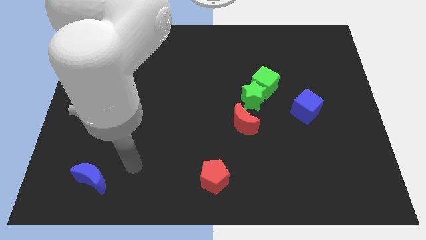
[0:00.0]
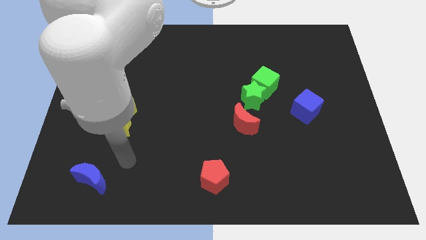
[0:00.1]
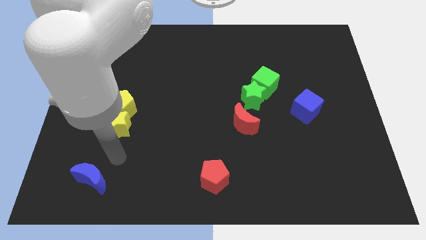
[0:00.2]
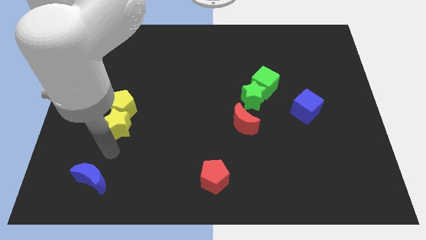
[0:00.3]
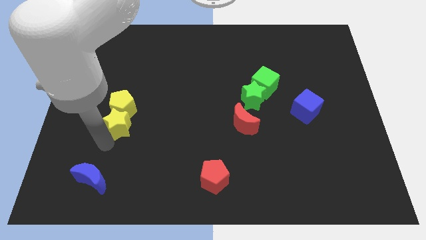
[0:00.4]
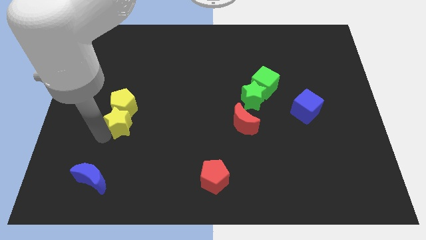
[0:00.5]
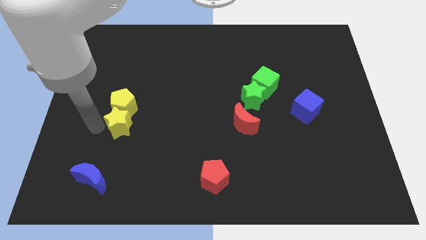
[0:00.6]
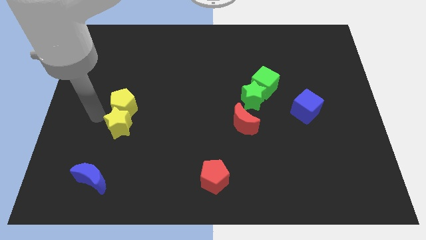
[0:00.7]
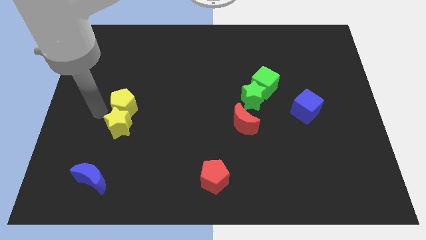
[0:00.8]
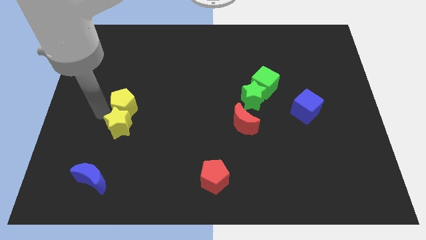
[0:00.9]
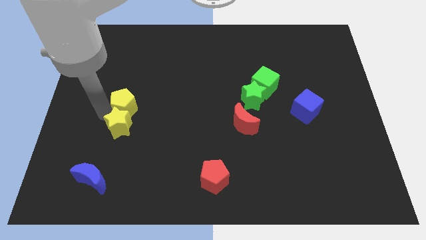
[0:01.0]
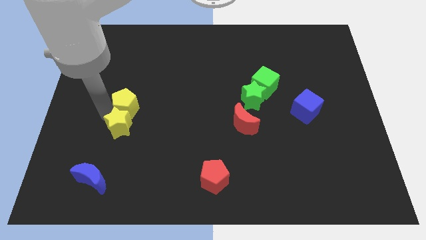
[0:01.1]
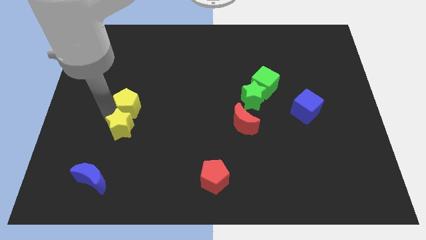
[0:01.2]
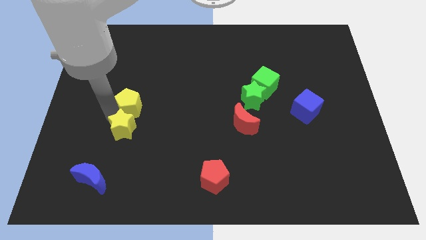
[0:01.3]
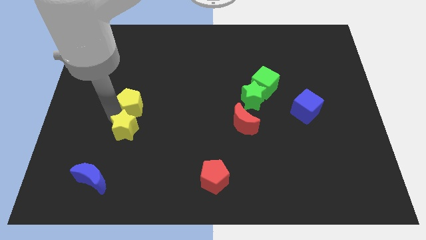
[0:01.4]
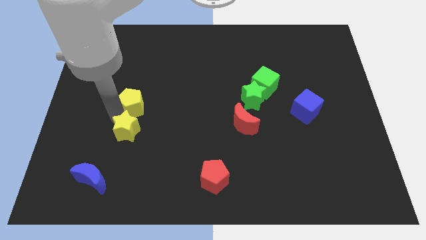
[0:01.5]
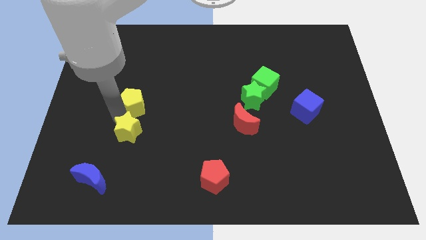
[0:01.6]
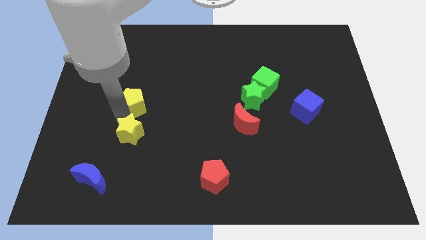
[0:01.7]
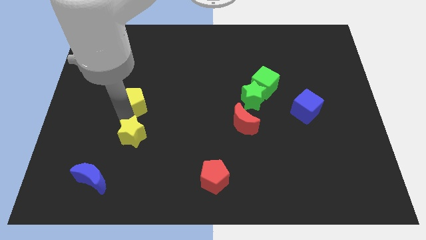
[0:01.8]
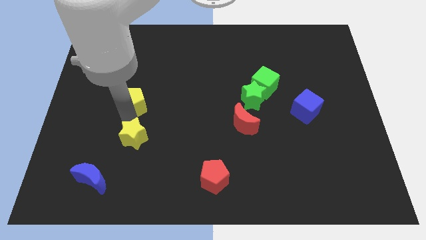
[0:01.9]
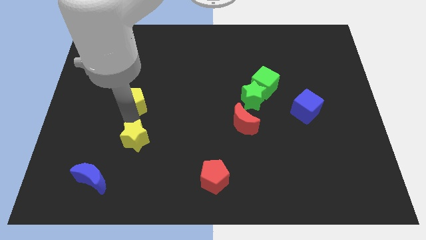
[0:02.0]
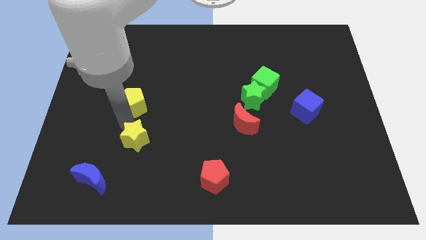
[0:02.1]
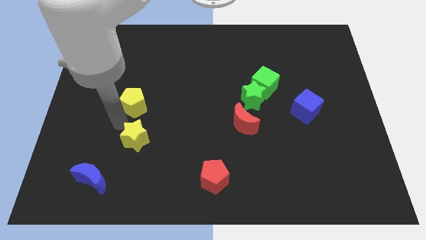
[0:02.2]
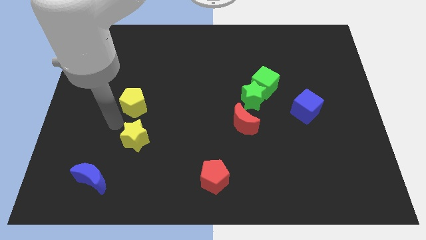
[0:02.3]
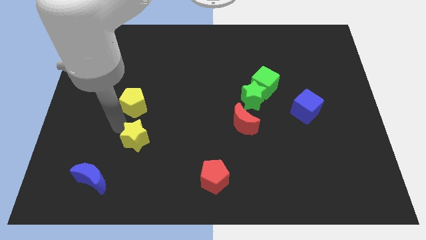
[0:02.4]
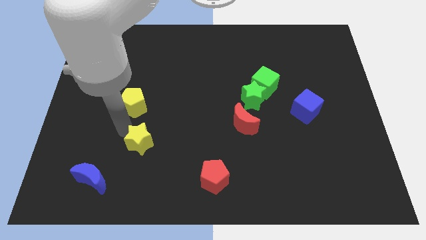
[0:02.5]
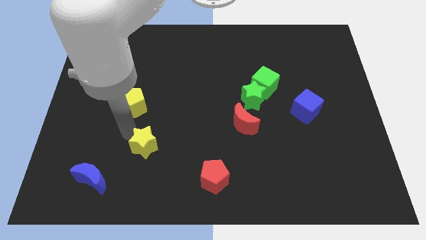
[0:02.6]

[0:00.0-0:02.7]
slightly move the yellow star downwards and then right

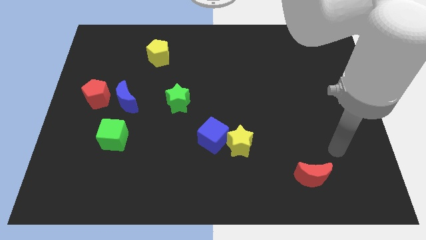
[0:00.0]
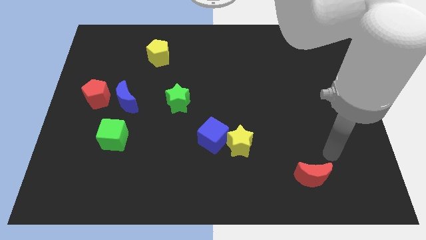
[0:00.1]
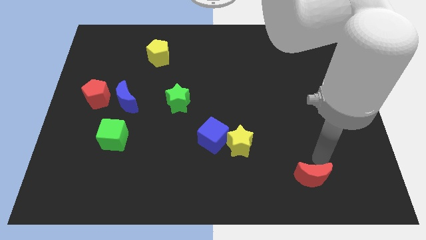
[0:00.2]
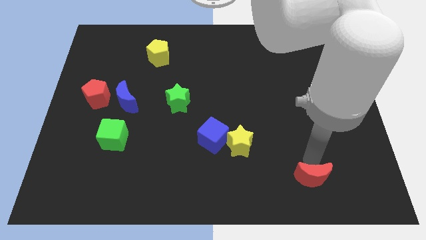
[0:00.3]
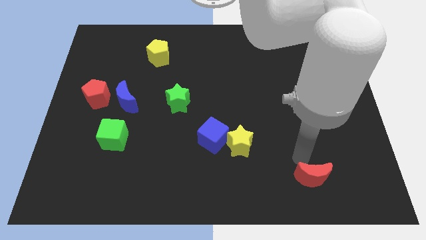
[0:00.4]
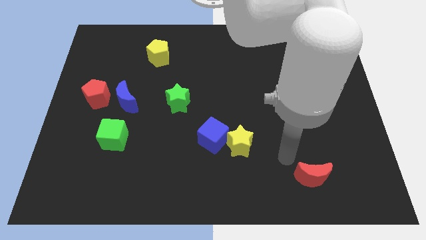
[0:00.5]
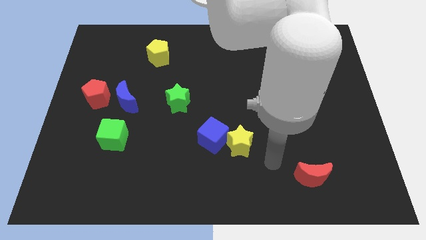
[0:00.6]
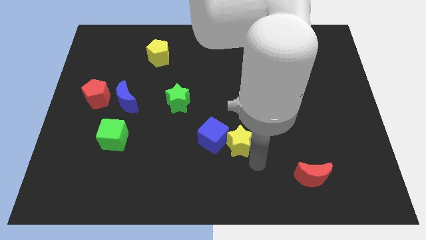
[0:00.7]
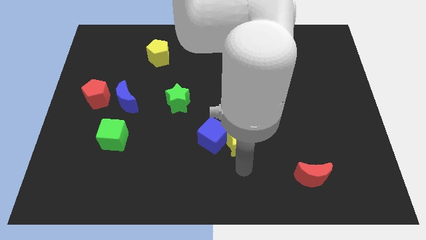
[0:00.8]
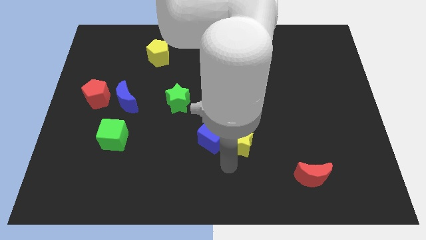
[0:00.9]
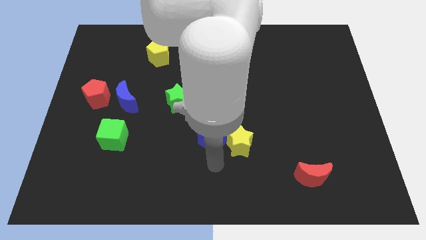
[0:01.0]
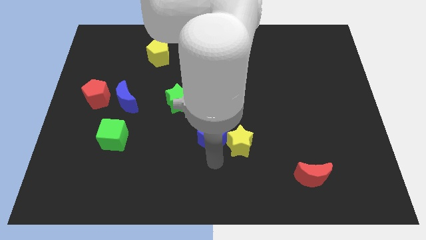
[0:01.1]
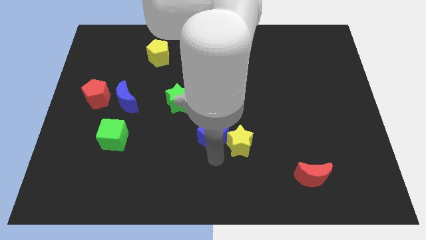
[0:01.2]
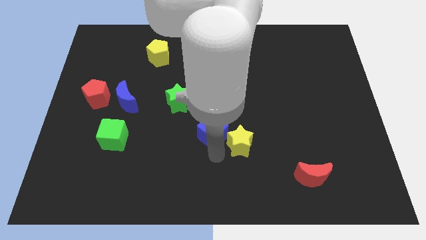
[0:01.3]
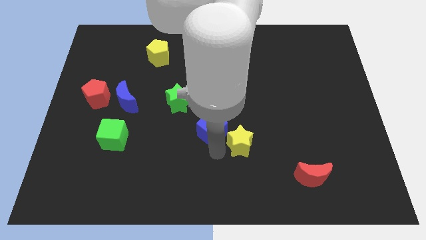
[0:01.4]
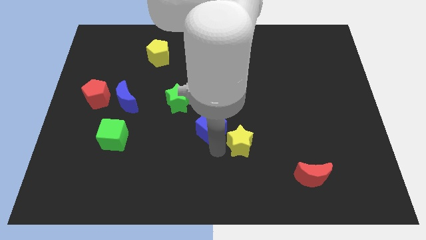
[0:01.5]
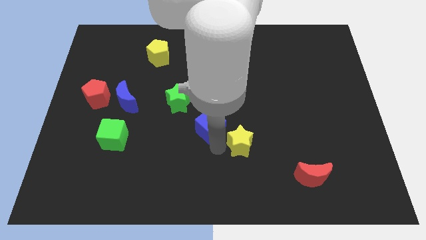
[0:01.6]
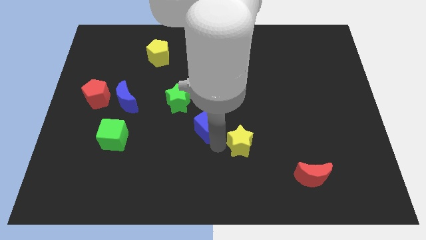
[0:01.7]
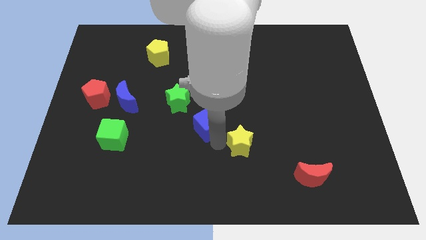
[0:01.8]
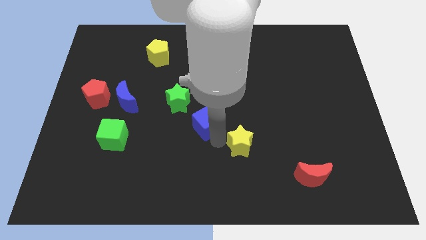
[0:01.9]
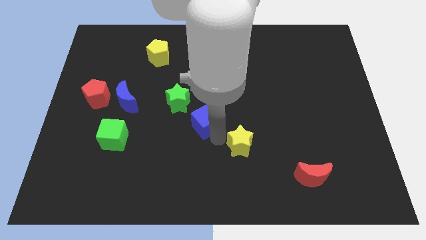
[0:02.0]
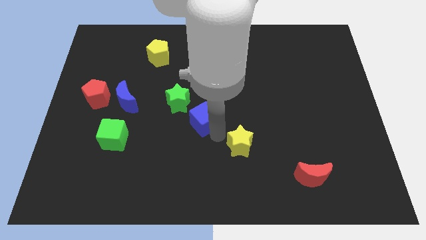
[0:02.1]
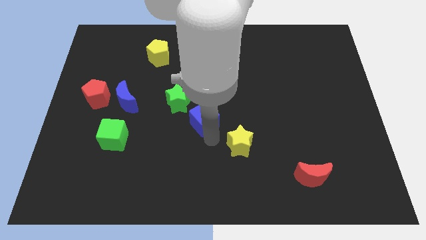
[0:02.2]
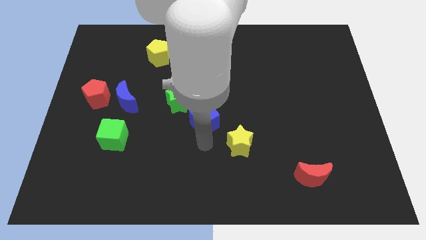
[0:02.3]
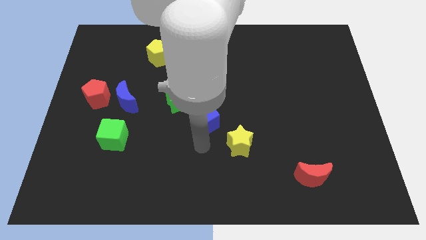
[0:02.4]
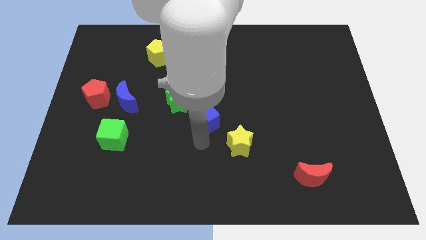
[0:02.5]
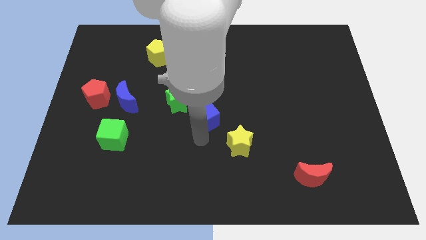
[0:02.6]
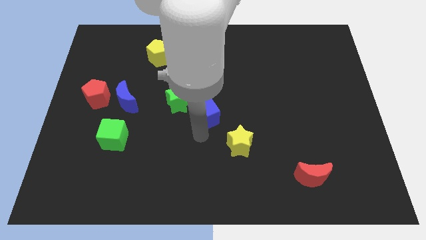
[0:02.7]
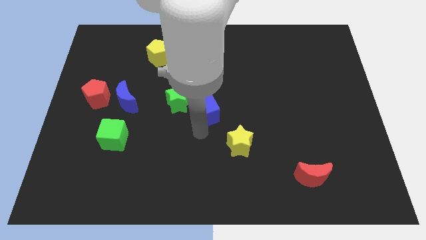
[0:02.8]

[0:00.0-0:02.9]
slightly push the blue cube up

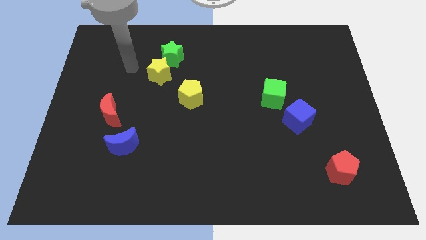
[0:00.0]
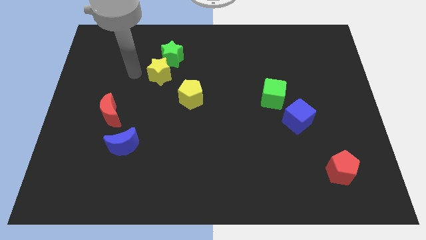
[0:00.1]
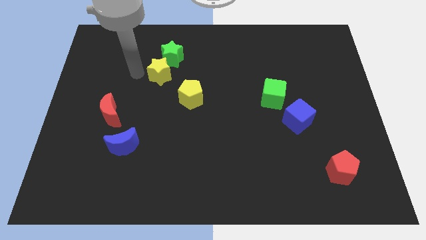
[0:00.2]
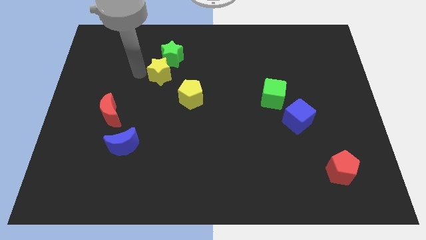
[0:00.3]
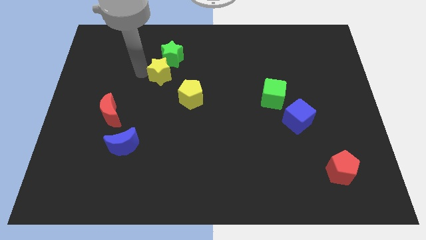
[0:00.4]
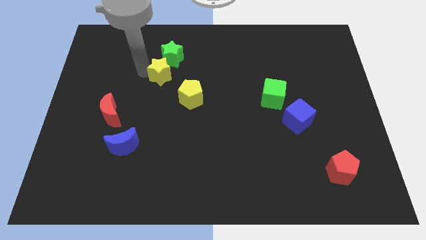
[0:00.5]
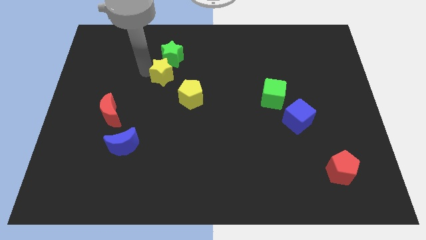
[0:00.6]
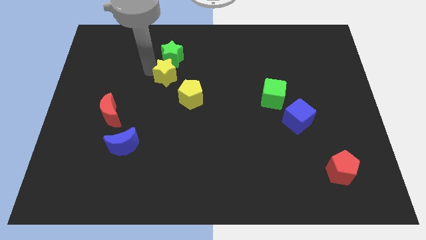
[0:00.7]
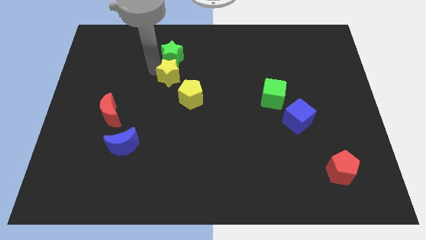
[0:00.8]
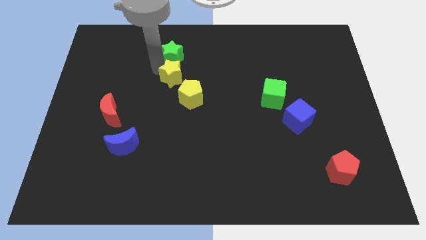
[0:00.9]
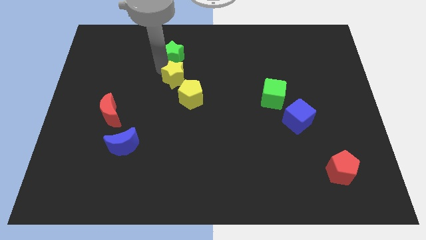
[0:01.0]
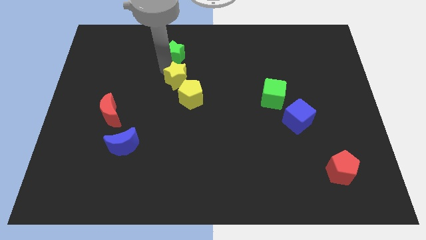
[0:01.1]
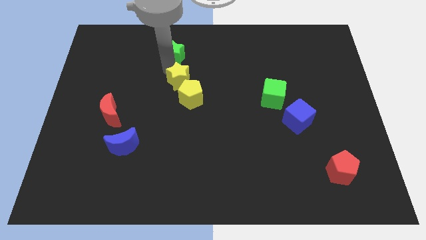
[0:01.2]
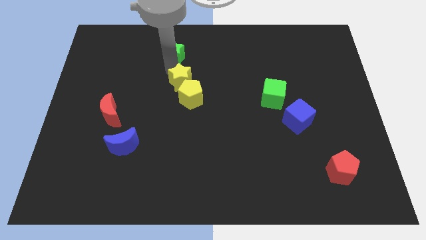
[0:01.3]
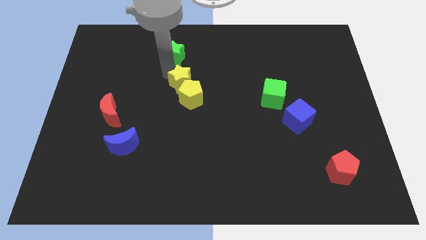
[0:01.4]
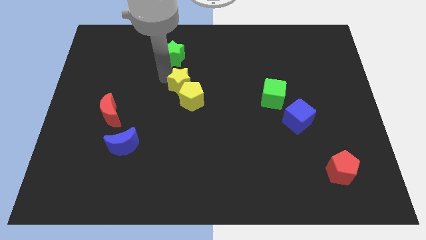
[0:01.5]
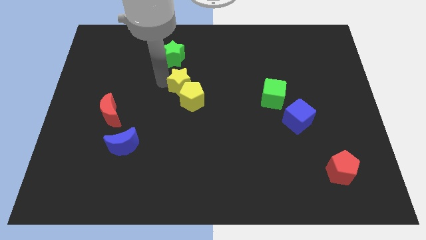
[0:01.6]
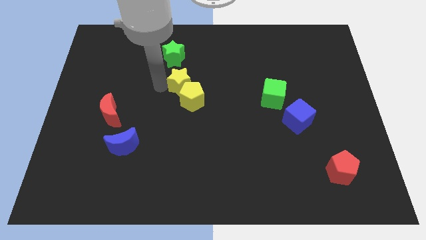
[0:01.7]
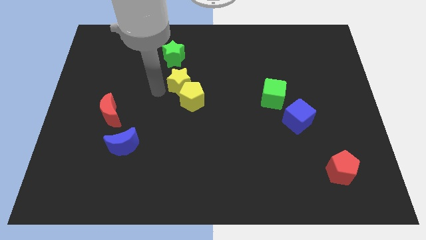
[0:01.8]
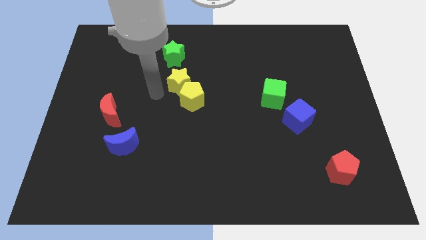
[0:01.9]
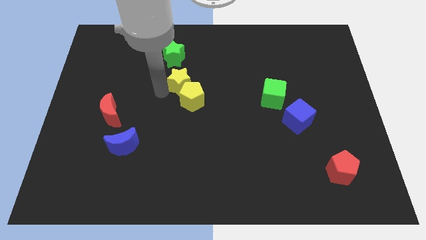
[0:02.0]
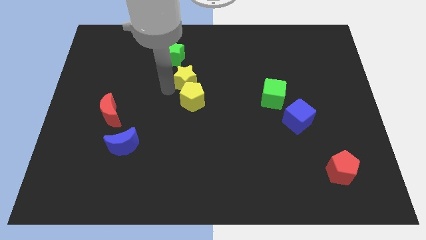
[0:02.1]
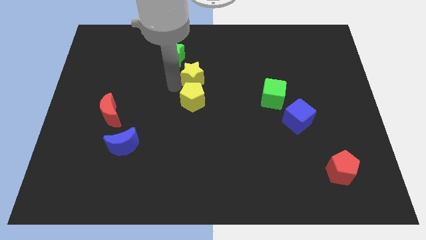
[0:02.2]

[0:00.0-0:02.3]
push the yellow star to the right somewhat
